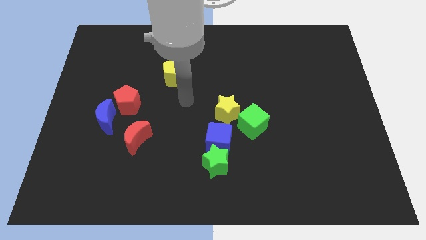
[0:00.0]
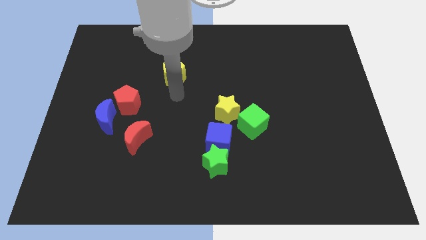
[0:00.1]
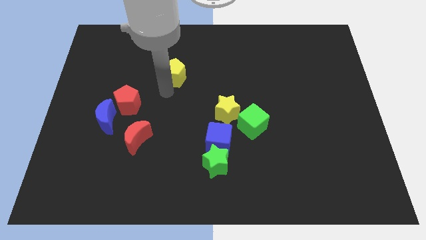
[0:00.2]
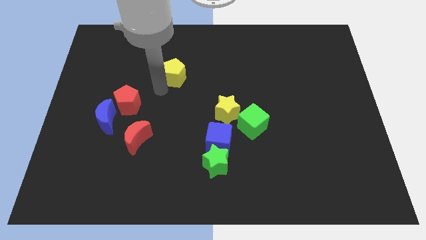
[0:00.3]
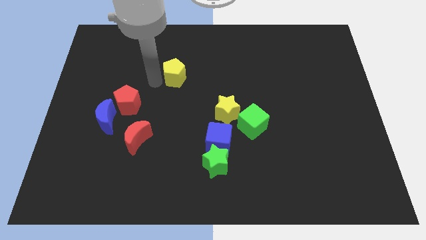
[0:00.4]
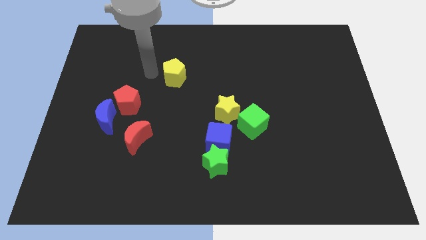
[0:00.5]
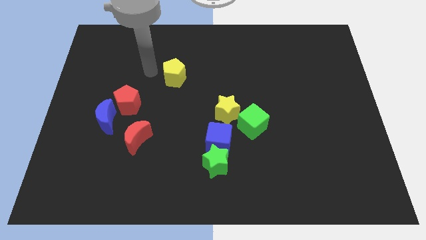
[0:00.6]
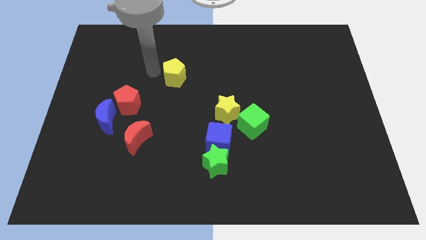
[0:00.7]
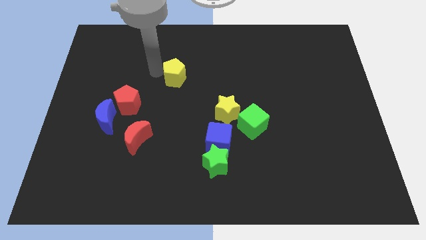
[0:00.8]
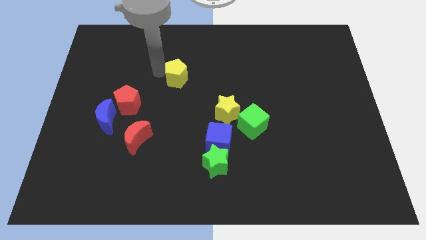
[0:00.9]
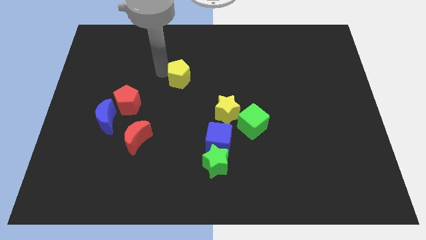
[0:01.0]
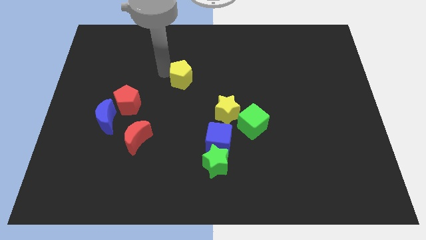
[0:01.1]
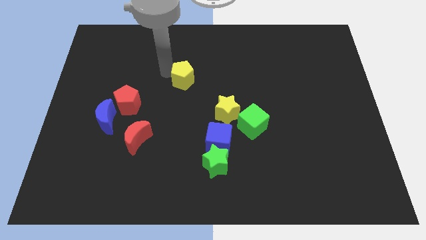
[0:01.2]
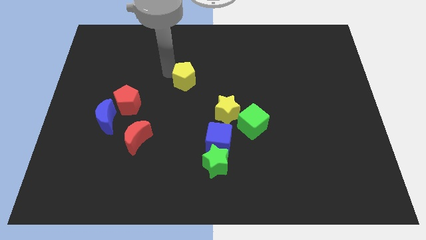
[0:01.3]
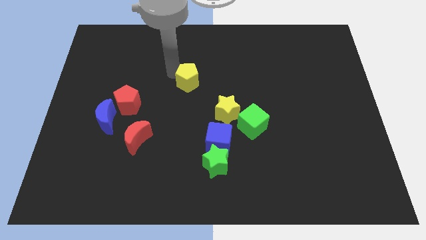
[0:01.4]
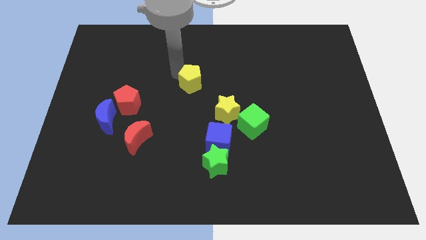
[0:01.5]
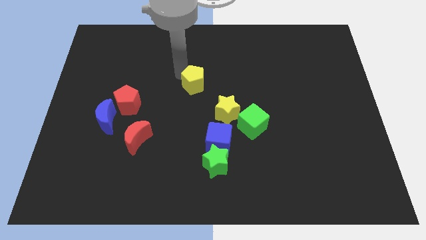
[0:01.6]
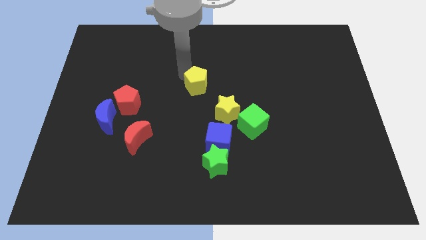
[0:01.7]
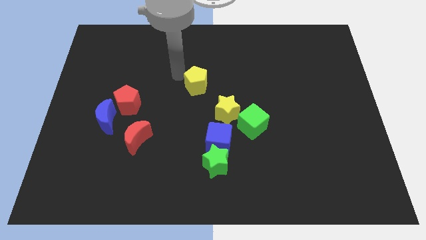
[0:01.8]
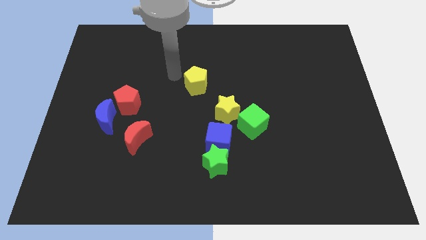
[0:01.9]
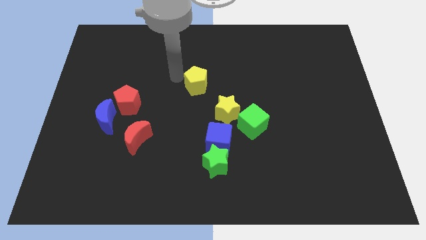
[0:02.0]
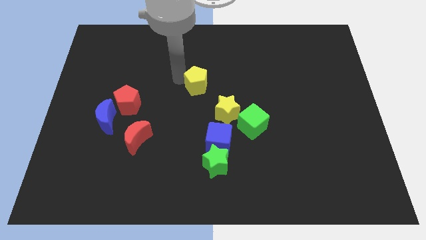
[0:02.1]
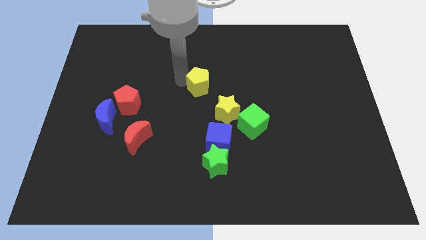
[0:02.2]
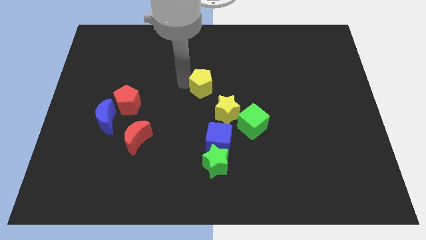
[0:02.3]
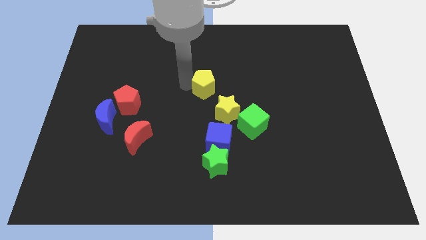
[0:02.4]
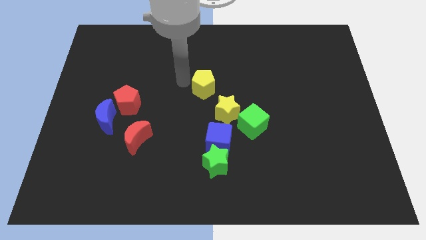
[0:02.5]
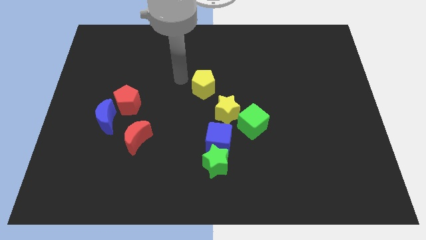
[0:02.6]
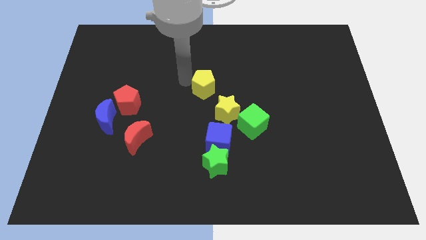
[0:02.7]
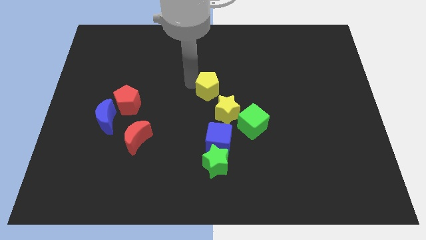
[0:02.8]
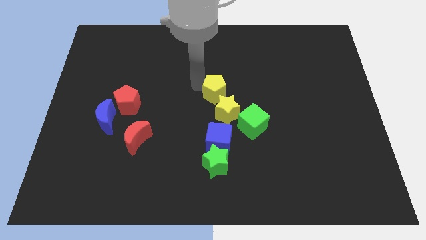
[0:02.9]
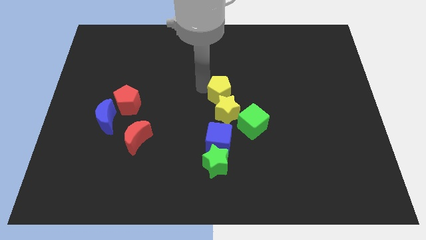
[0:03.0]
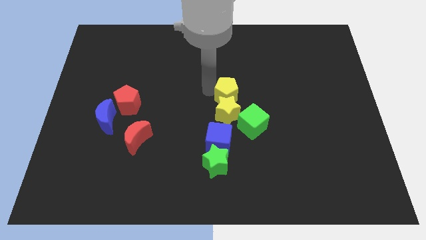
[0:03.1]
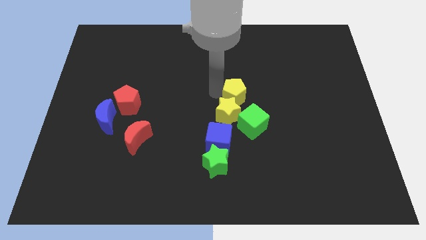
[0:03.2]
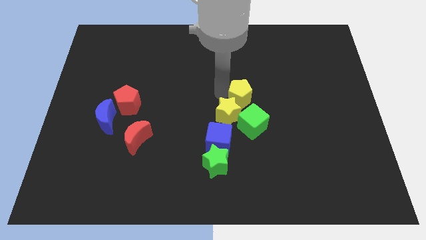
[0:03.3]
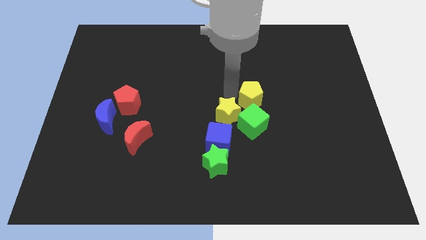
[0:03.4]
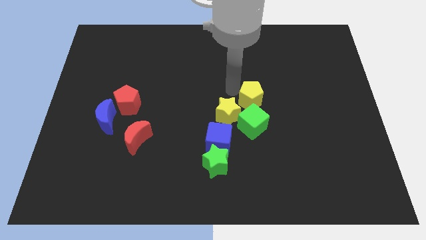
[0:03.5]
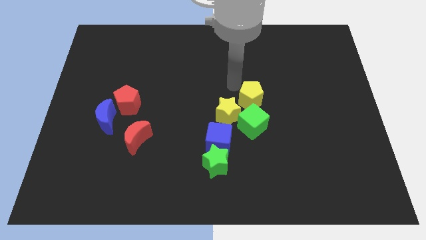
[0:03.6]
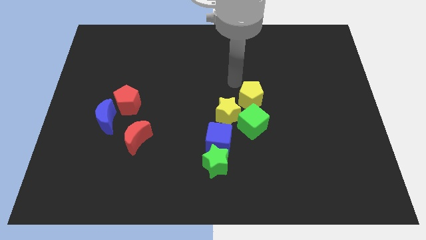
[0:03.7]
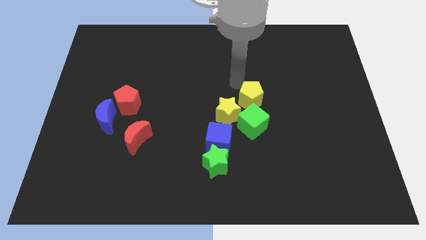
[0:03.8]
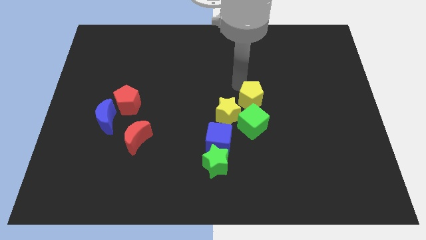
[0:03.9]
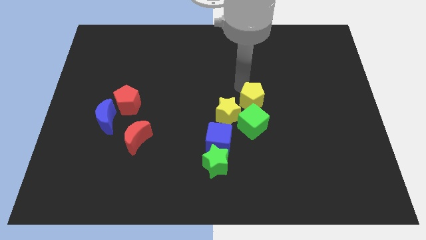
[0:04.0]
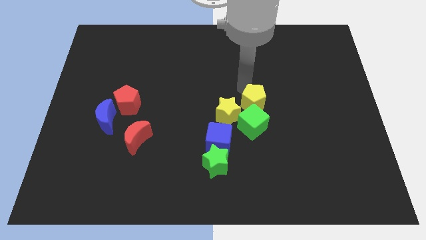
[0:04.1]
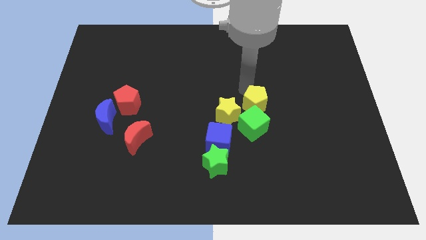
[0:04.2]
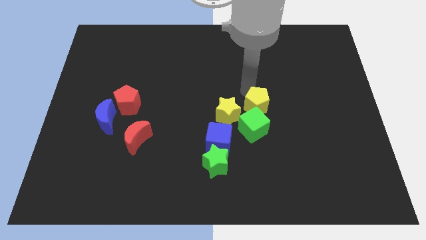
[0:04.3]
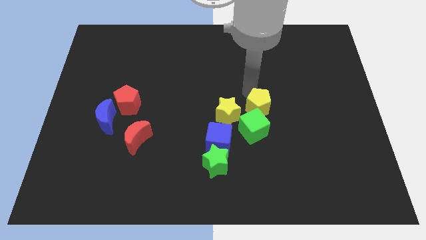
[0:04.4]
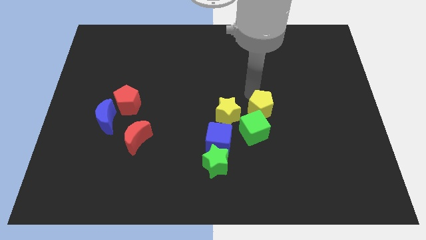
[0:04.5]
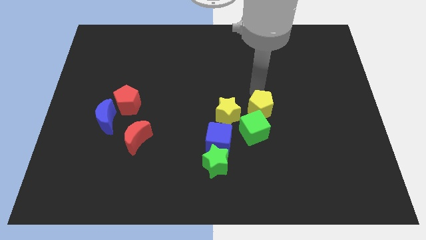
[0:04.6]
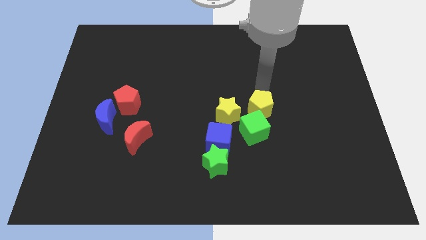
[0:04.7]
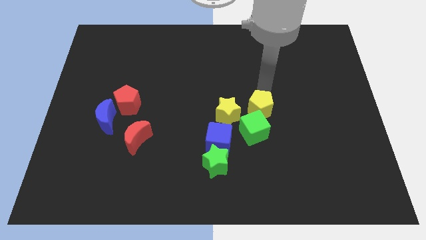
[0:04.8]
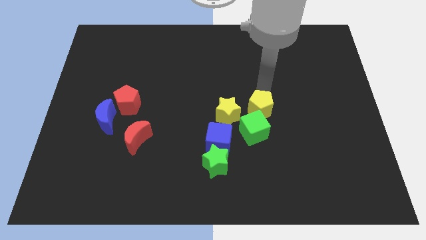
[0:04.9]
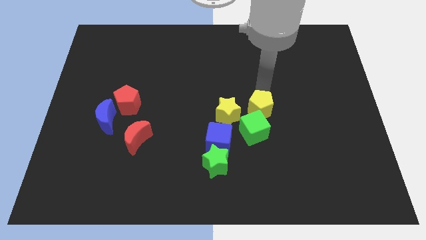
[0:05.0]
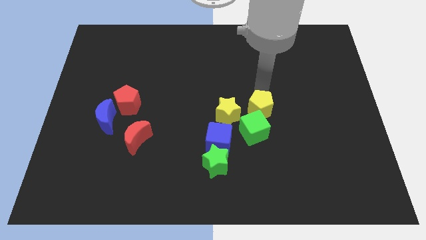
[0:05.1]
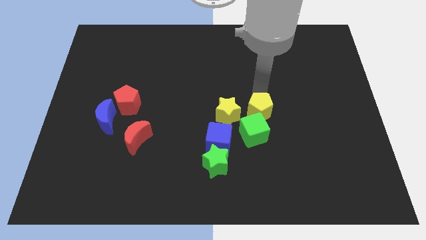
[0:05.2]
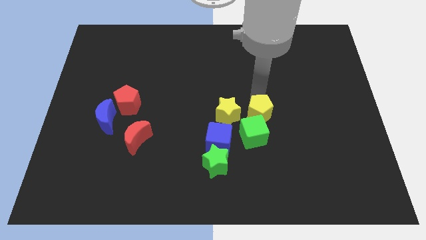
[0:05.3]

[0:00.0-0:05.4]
push the yellow pentagon next to the green cube

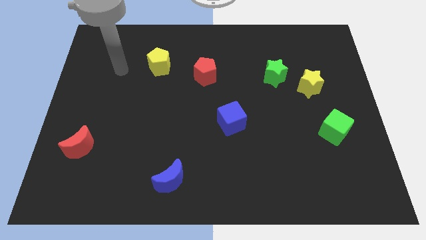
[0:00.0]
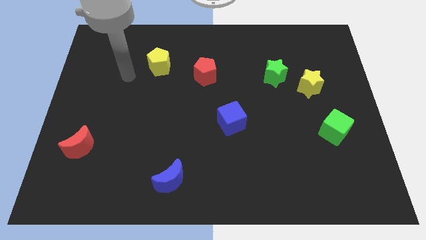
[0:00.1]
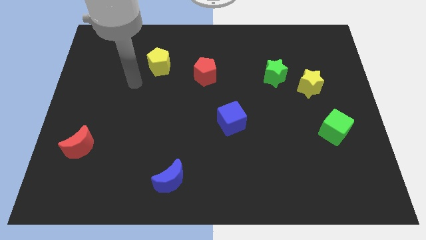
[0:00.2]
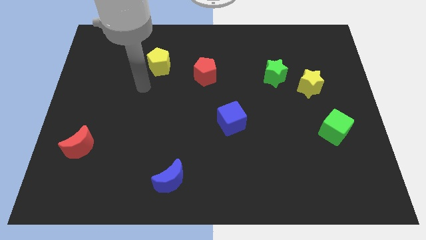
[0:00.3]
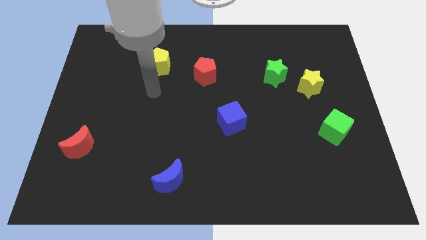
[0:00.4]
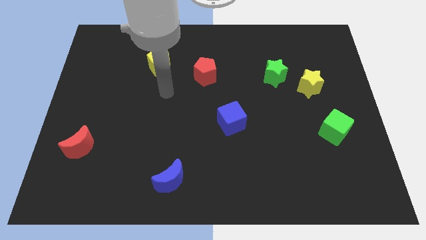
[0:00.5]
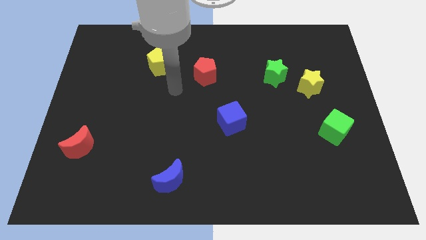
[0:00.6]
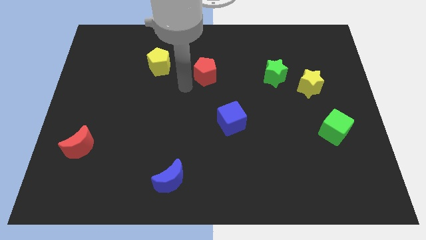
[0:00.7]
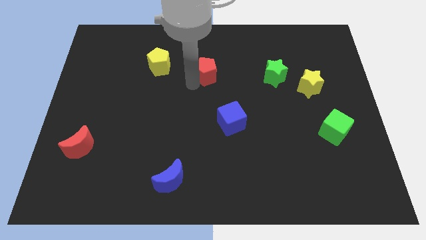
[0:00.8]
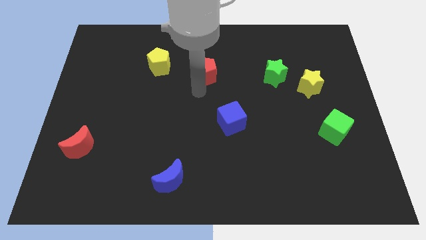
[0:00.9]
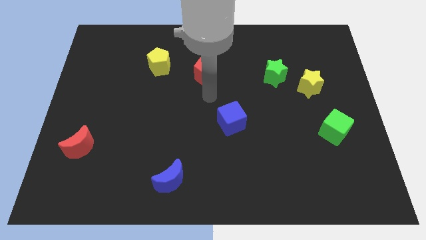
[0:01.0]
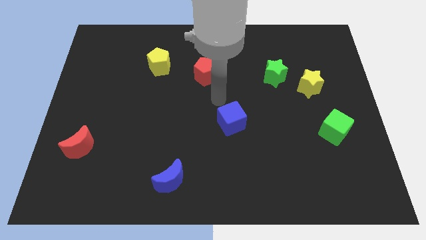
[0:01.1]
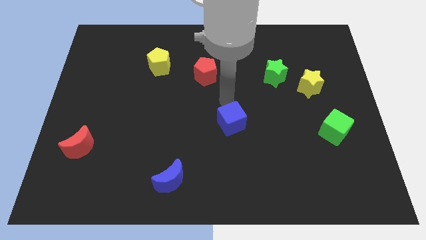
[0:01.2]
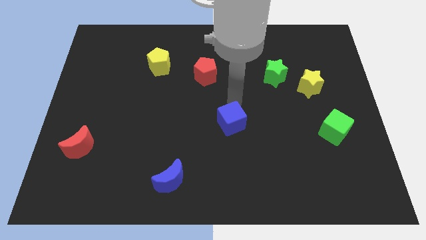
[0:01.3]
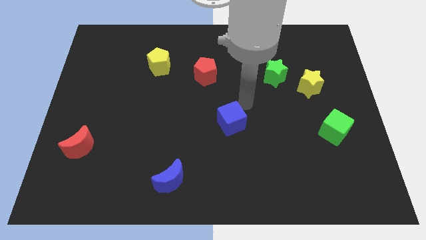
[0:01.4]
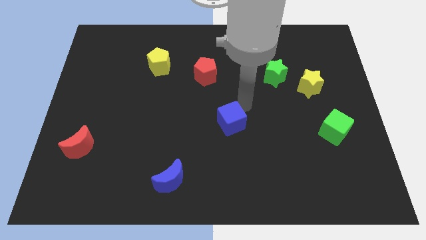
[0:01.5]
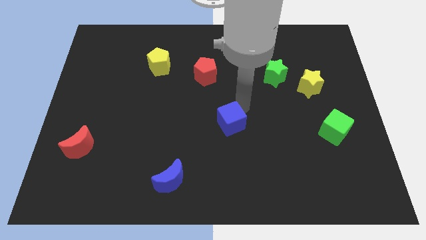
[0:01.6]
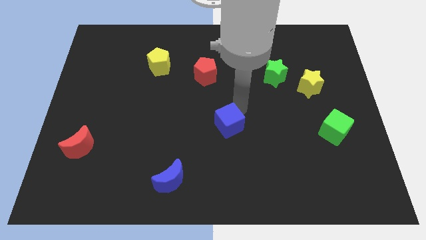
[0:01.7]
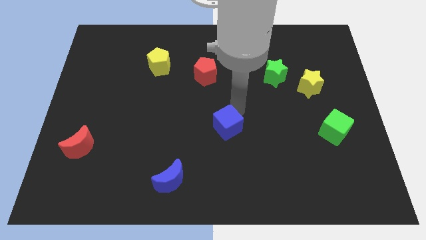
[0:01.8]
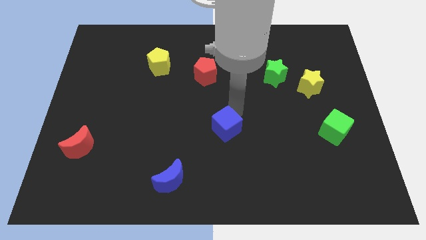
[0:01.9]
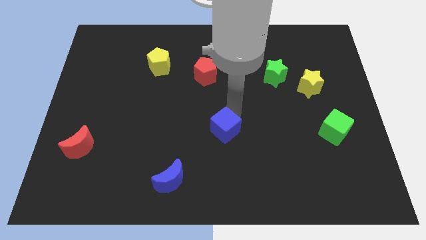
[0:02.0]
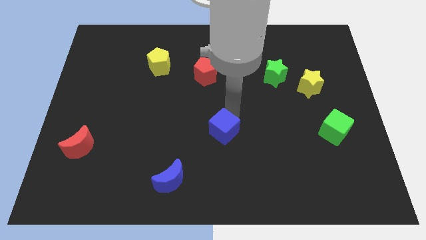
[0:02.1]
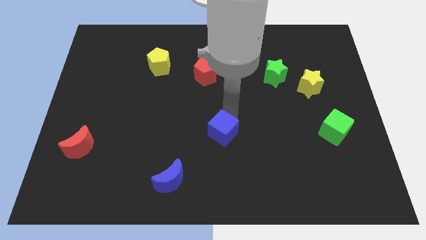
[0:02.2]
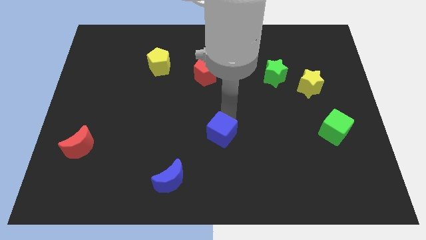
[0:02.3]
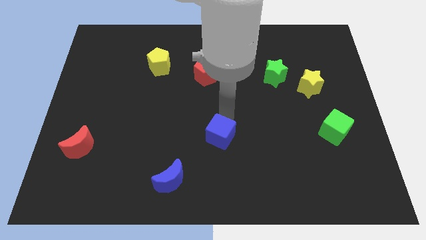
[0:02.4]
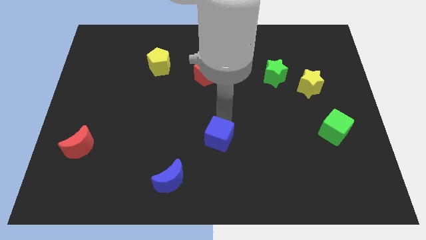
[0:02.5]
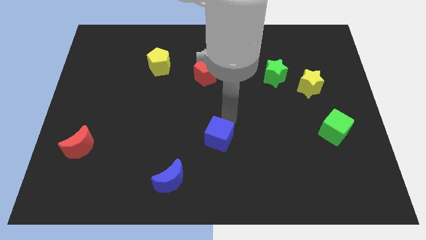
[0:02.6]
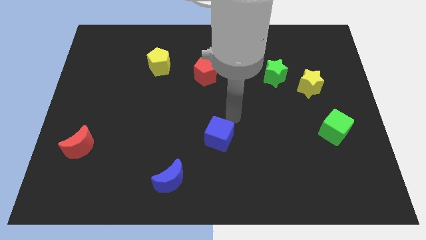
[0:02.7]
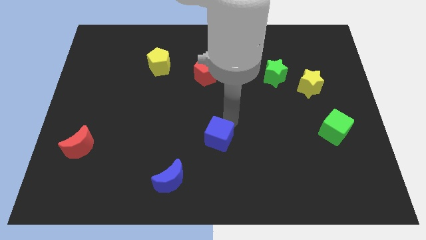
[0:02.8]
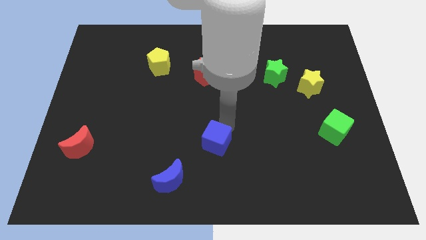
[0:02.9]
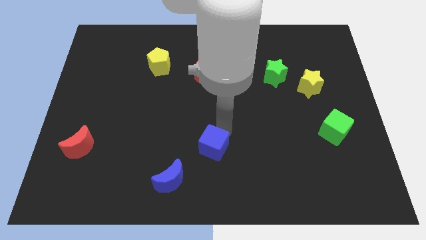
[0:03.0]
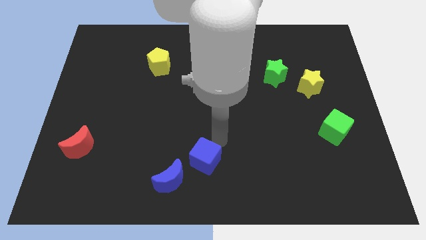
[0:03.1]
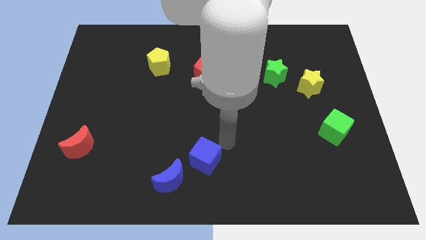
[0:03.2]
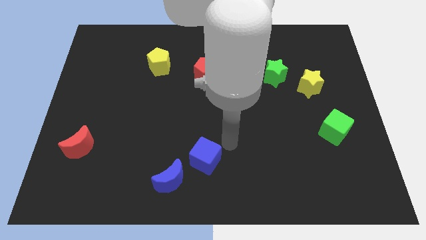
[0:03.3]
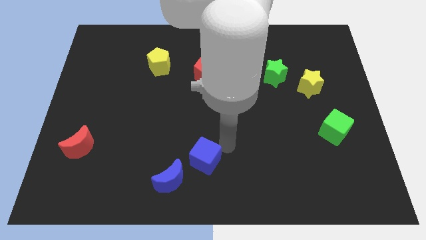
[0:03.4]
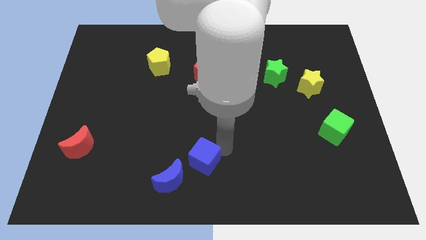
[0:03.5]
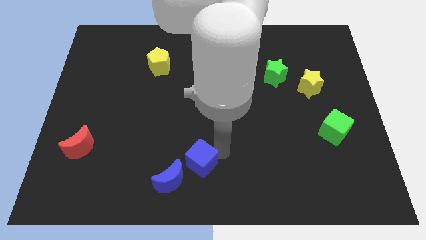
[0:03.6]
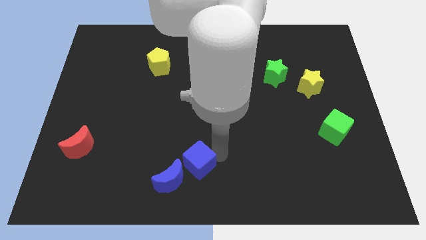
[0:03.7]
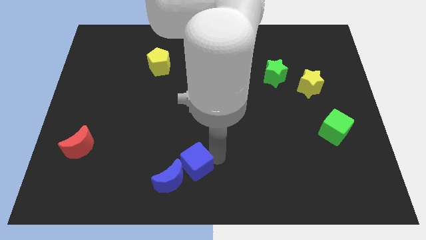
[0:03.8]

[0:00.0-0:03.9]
move the blue cube close to the blue moon
